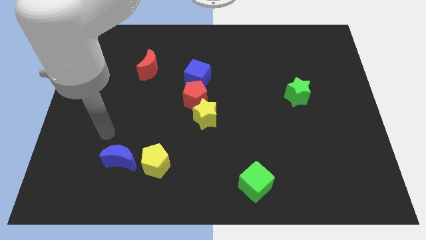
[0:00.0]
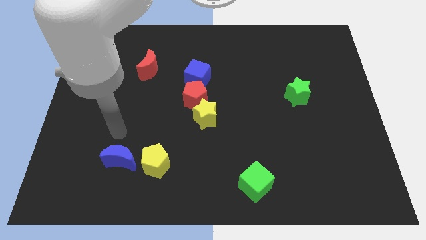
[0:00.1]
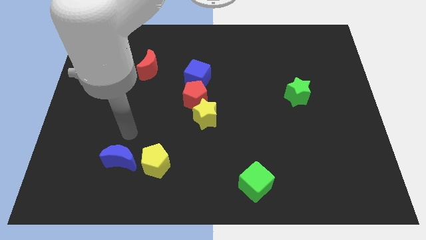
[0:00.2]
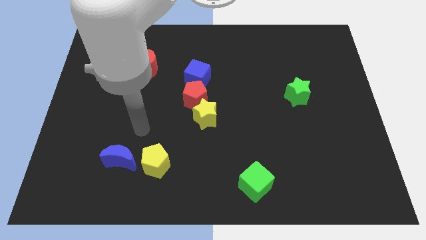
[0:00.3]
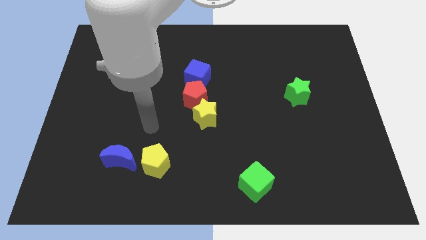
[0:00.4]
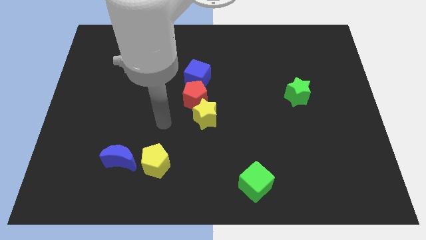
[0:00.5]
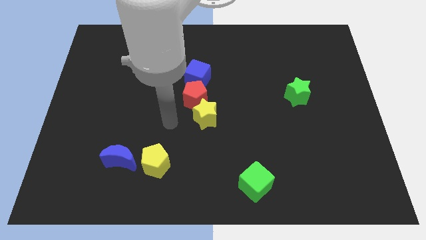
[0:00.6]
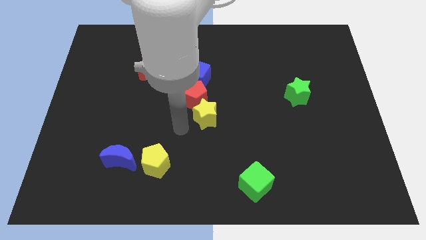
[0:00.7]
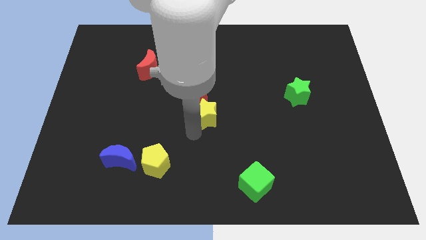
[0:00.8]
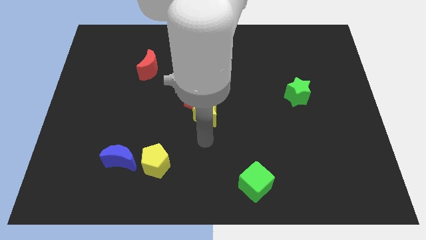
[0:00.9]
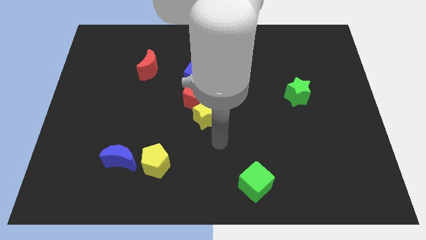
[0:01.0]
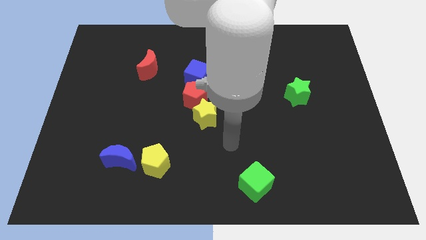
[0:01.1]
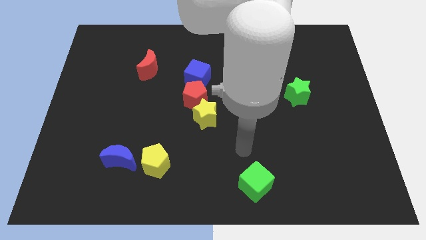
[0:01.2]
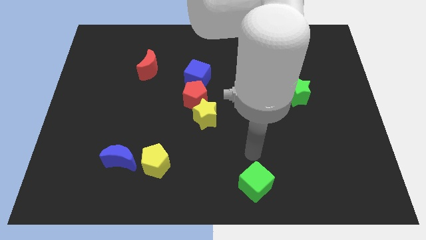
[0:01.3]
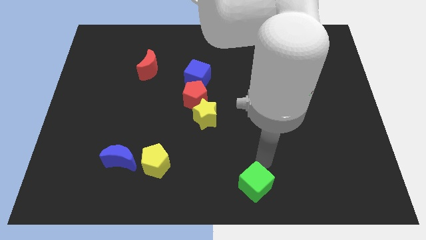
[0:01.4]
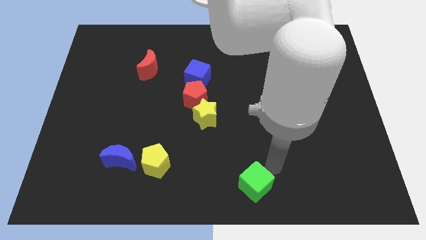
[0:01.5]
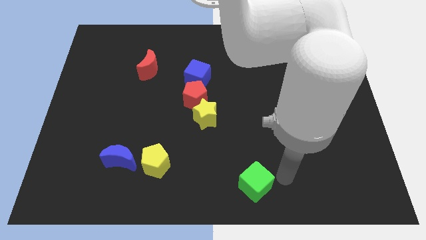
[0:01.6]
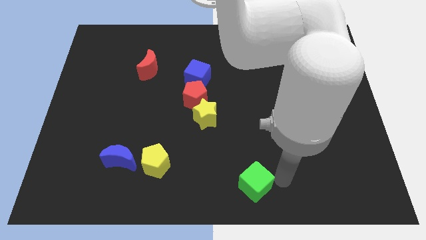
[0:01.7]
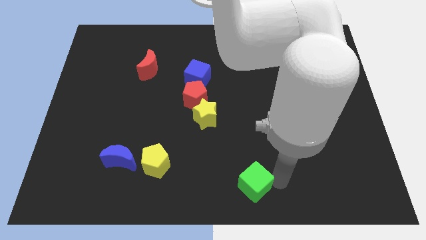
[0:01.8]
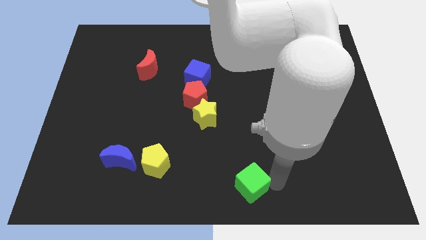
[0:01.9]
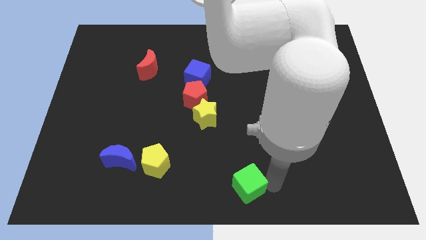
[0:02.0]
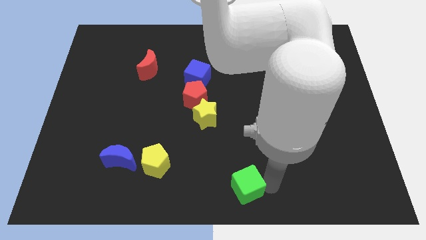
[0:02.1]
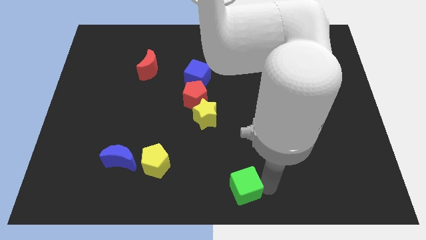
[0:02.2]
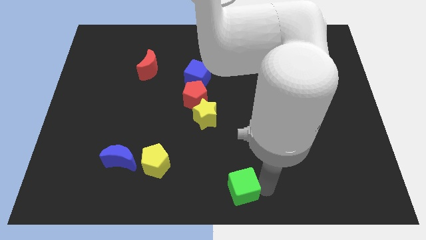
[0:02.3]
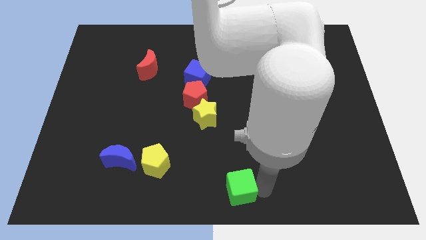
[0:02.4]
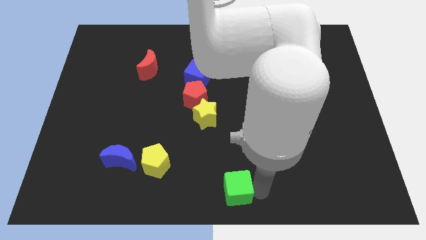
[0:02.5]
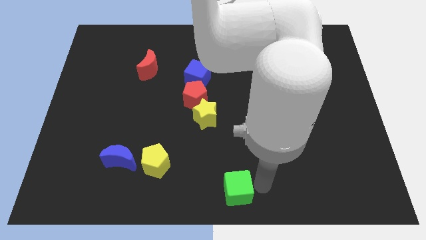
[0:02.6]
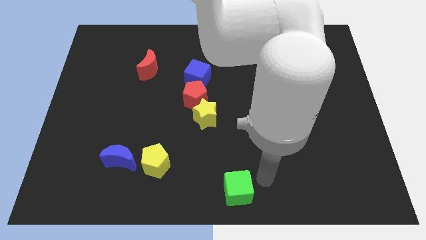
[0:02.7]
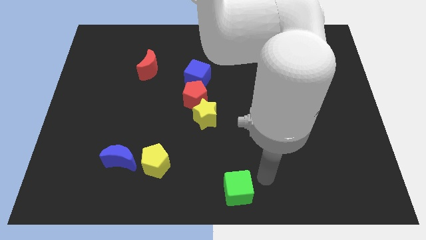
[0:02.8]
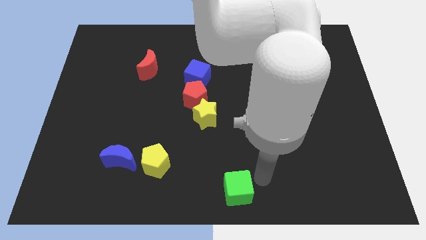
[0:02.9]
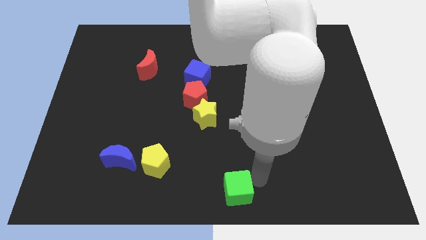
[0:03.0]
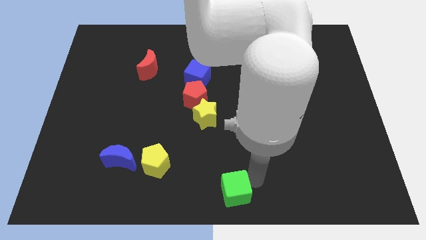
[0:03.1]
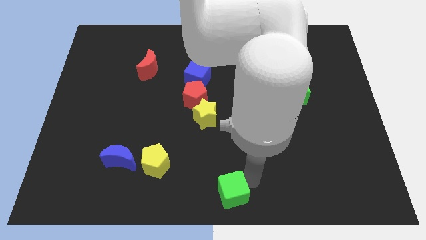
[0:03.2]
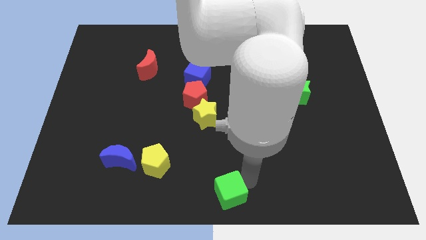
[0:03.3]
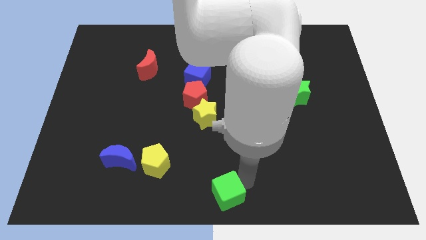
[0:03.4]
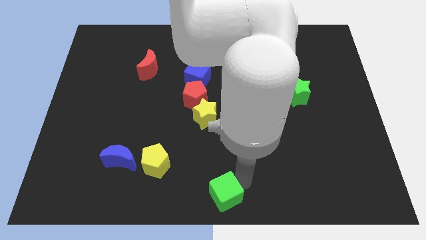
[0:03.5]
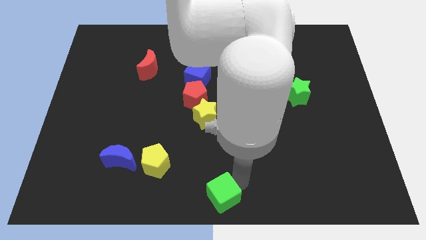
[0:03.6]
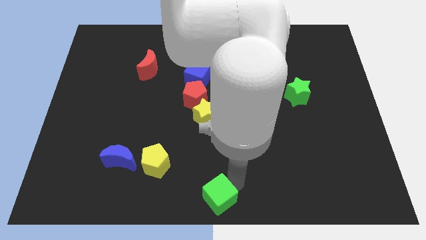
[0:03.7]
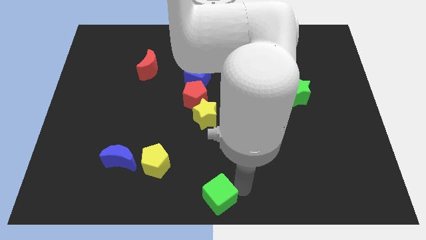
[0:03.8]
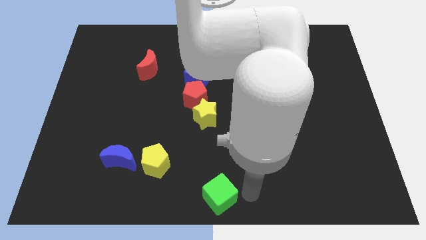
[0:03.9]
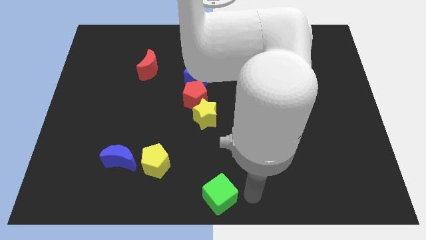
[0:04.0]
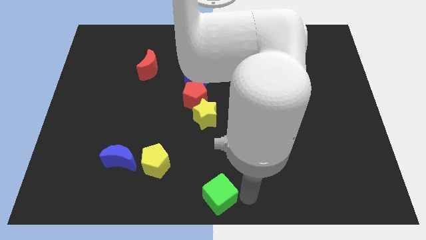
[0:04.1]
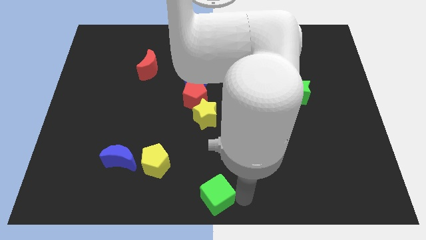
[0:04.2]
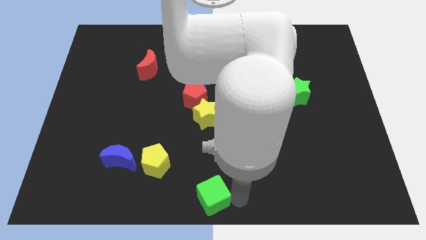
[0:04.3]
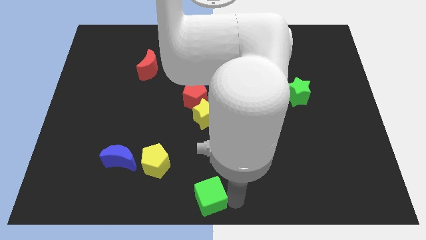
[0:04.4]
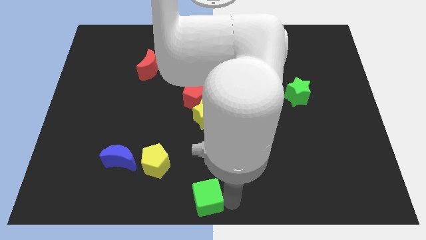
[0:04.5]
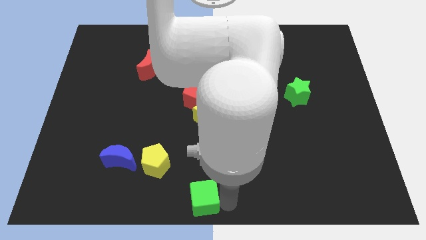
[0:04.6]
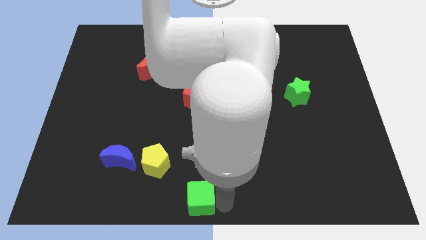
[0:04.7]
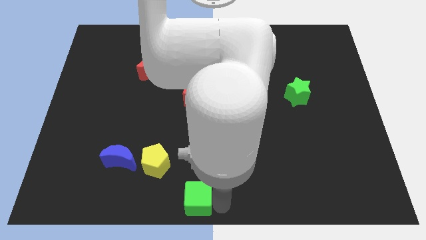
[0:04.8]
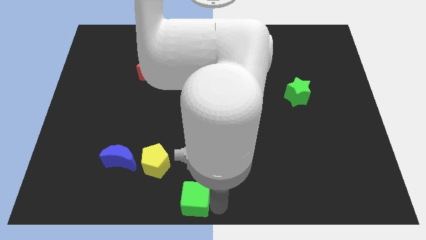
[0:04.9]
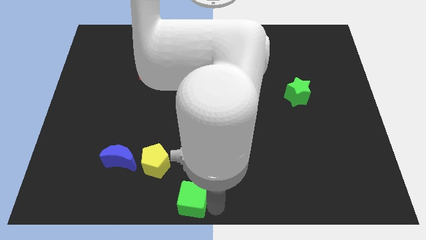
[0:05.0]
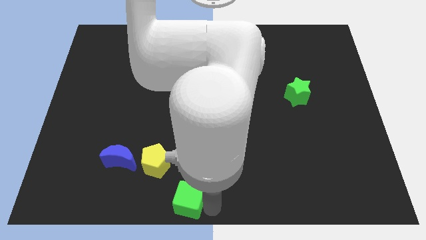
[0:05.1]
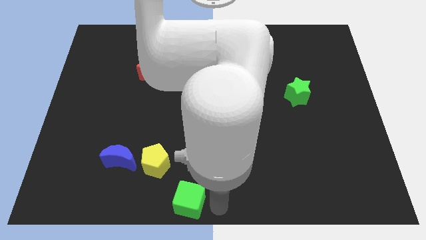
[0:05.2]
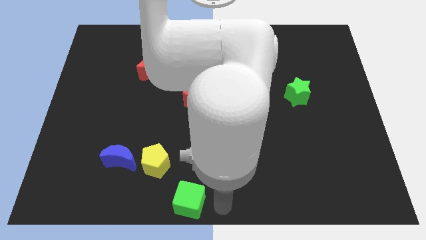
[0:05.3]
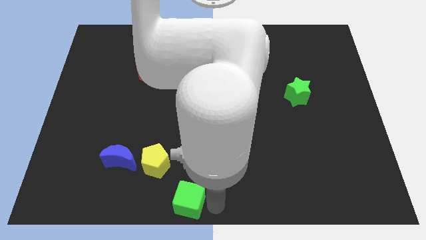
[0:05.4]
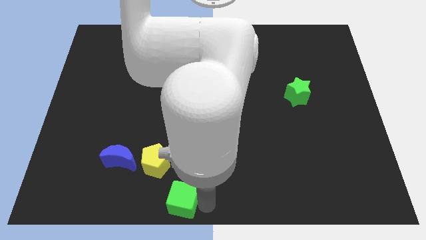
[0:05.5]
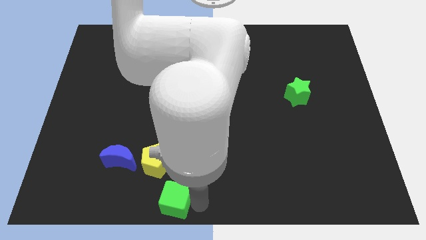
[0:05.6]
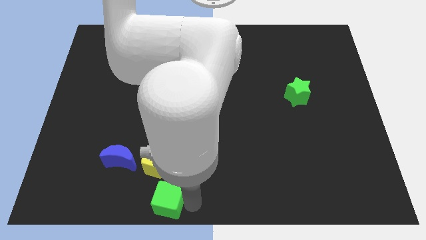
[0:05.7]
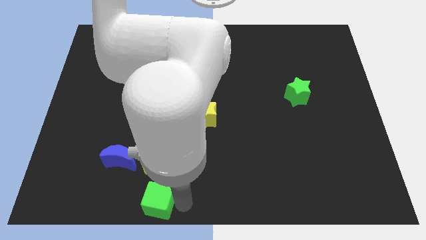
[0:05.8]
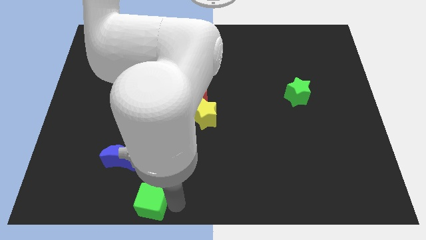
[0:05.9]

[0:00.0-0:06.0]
move the green cube to the left

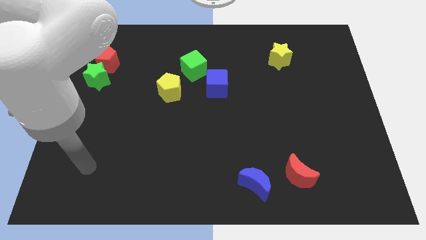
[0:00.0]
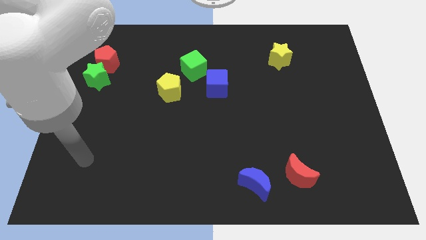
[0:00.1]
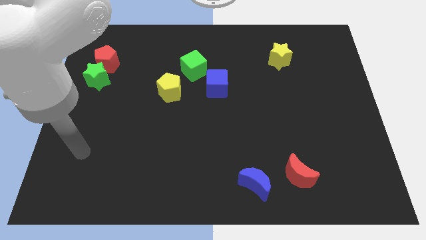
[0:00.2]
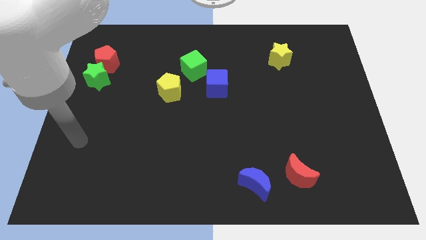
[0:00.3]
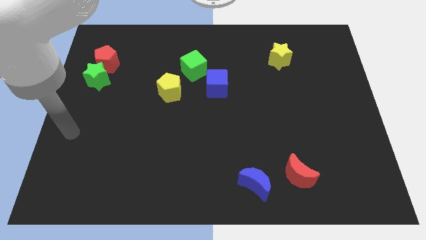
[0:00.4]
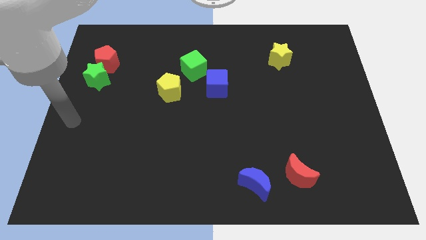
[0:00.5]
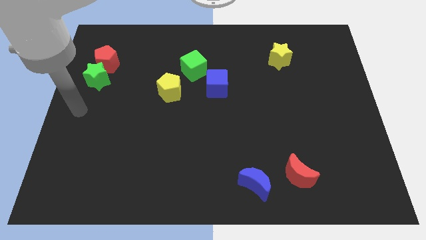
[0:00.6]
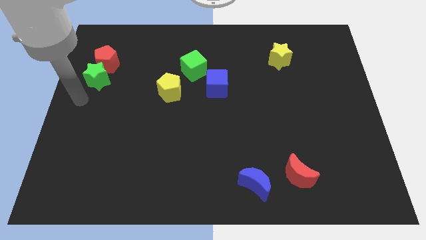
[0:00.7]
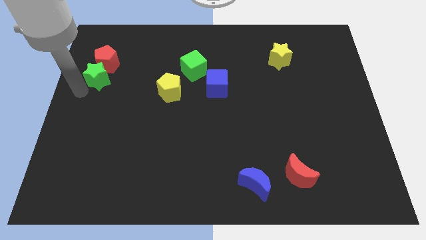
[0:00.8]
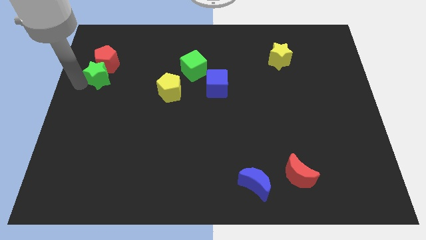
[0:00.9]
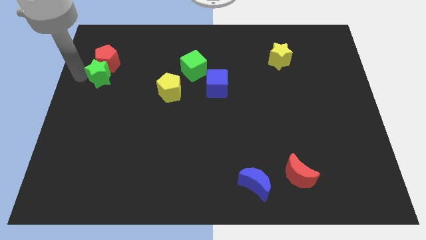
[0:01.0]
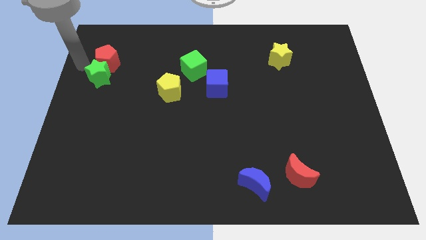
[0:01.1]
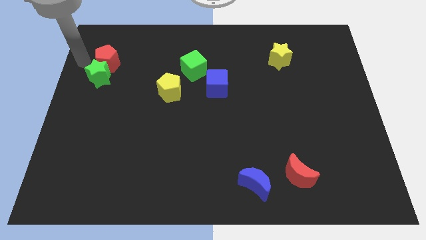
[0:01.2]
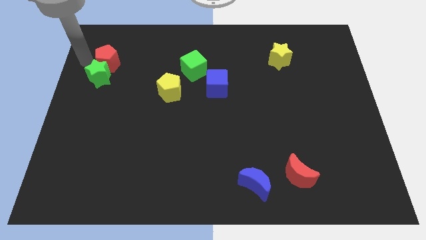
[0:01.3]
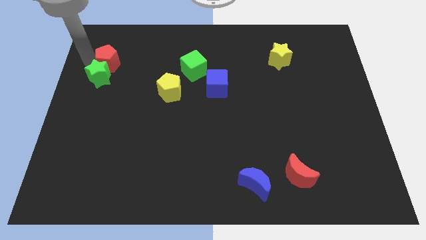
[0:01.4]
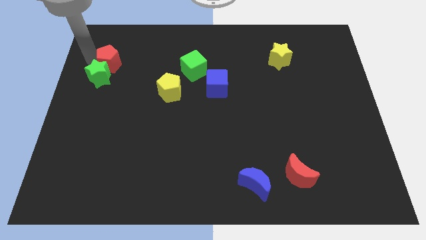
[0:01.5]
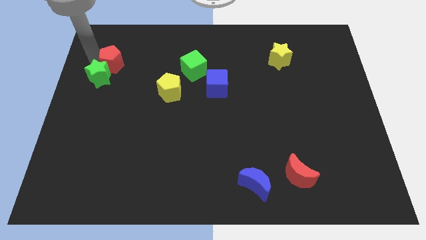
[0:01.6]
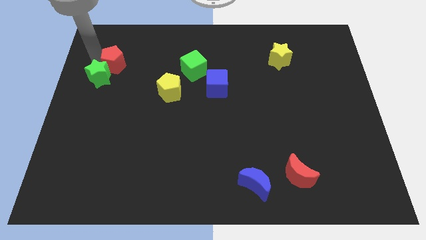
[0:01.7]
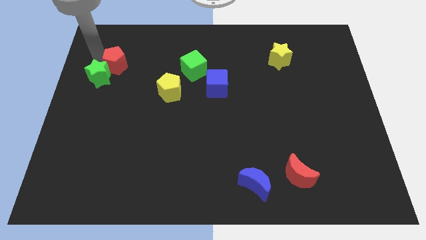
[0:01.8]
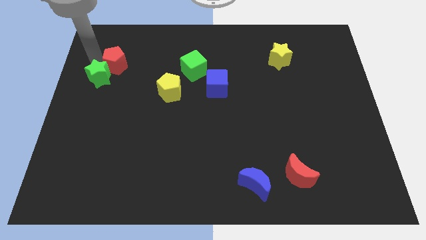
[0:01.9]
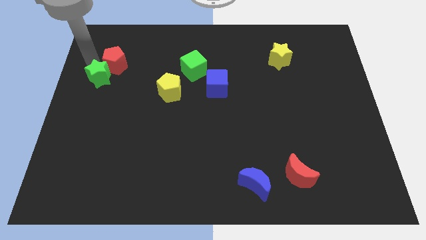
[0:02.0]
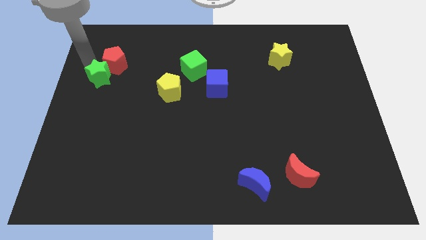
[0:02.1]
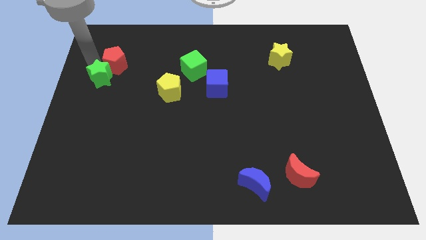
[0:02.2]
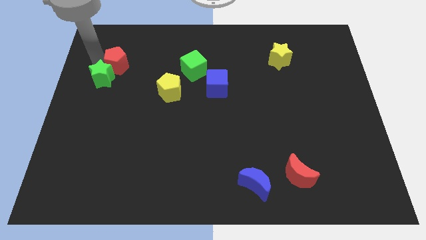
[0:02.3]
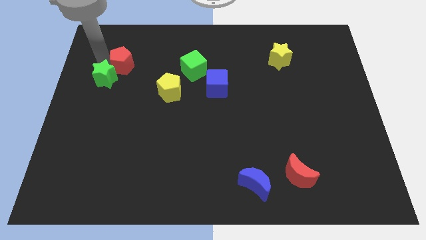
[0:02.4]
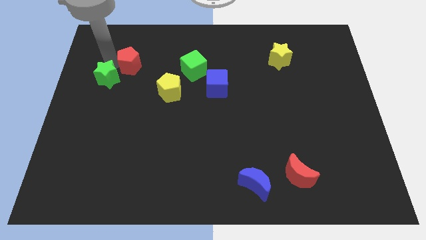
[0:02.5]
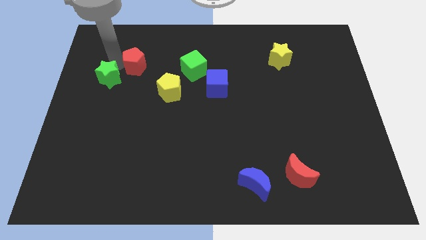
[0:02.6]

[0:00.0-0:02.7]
slightly move the red pentagon to the right
